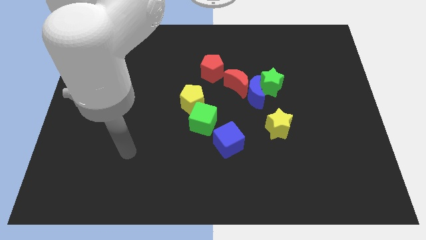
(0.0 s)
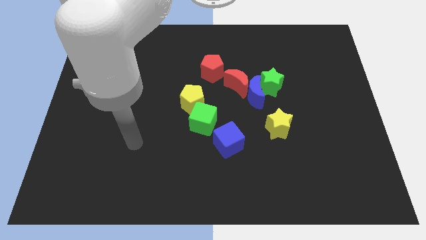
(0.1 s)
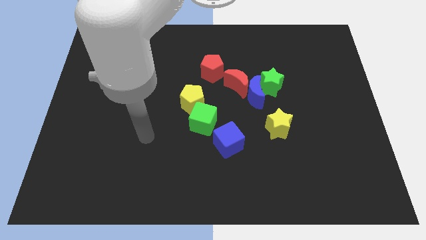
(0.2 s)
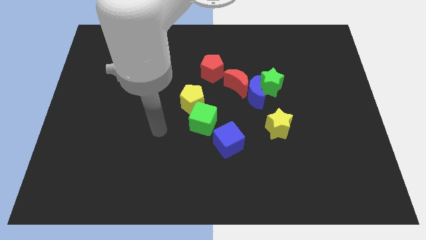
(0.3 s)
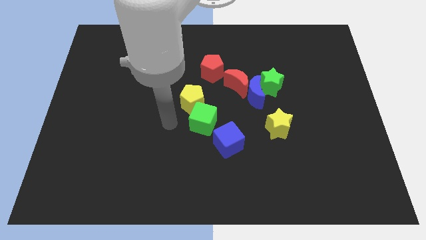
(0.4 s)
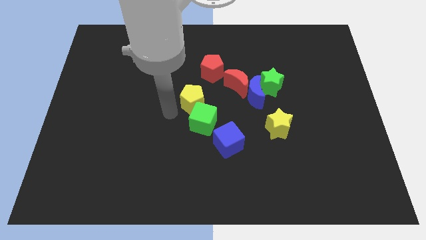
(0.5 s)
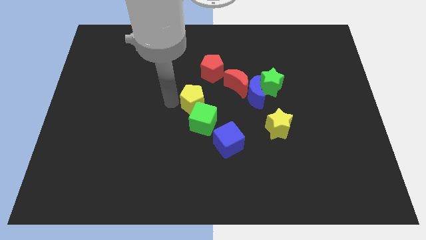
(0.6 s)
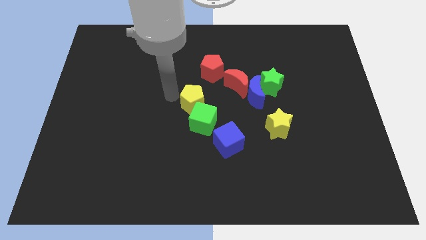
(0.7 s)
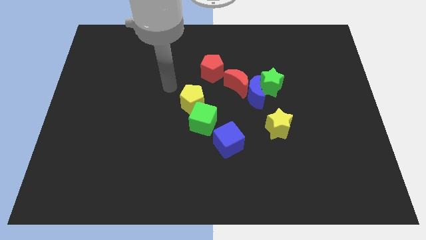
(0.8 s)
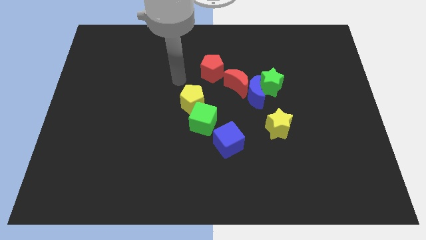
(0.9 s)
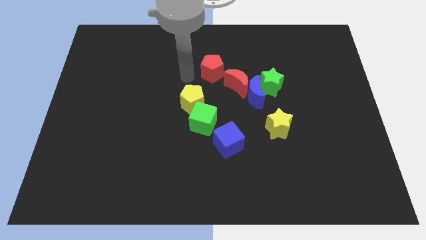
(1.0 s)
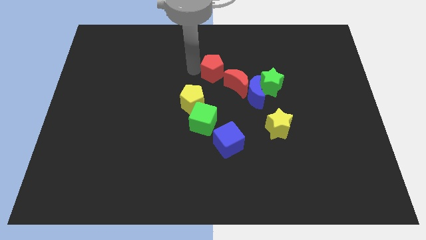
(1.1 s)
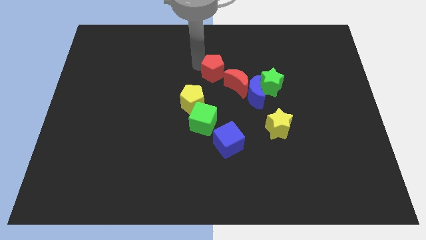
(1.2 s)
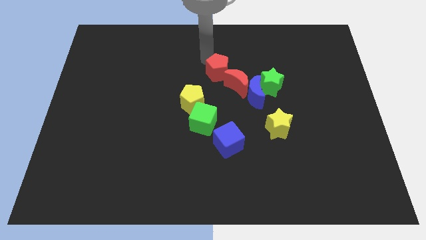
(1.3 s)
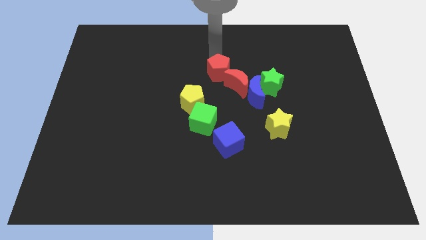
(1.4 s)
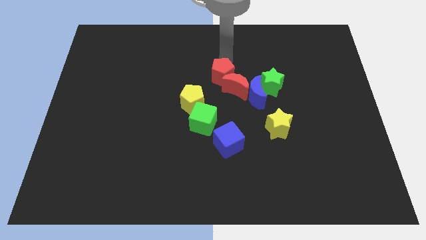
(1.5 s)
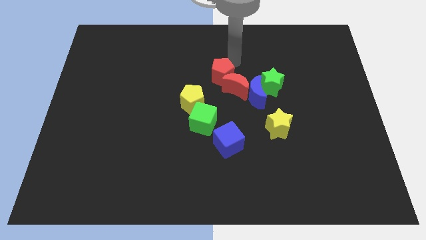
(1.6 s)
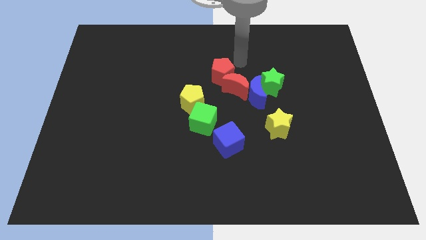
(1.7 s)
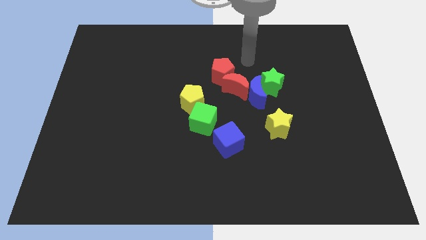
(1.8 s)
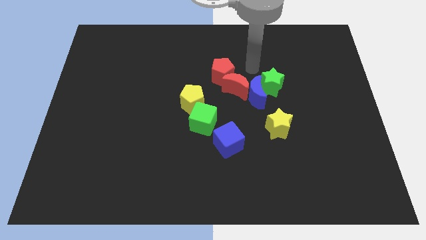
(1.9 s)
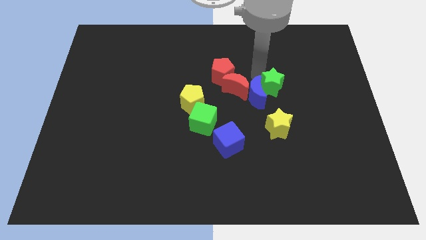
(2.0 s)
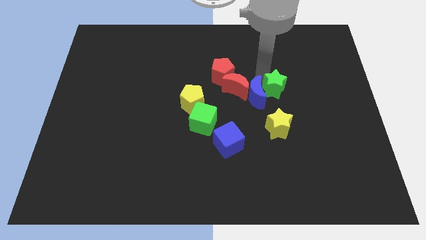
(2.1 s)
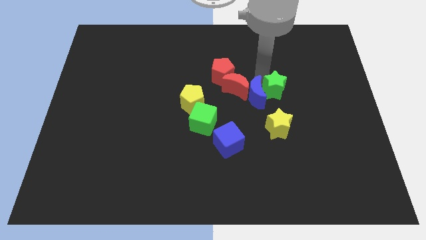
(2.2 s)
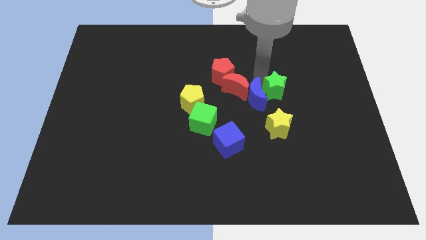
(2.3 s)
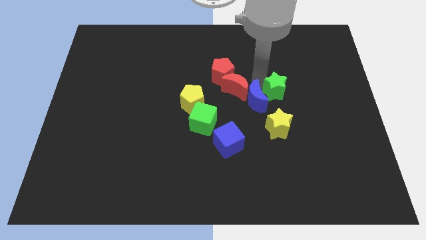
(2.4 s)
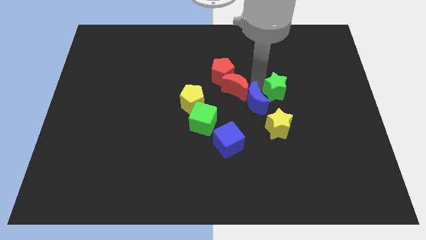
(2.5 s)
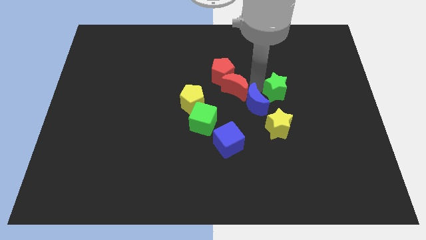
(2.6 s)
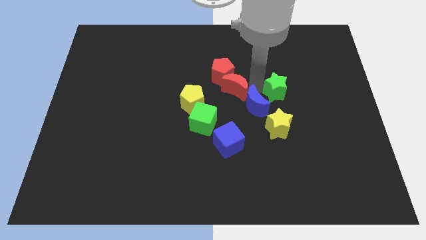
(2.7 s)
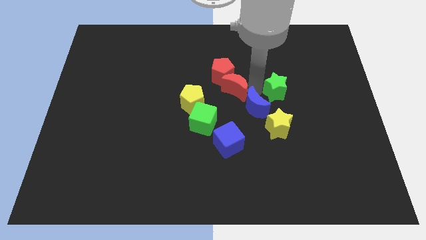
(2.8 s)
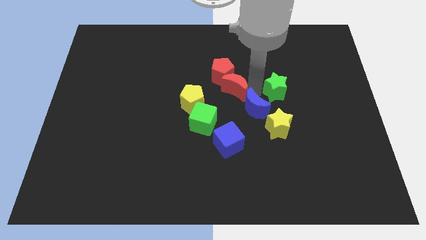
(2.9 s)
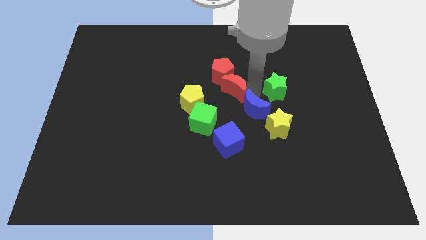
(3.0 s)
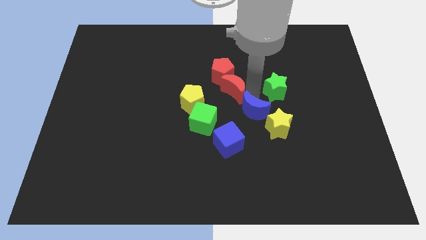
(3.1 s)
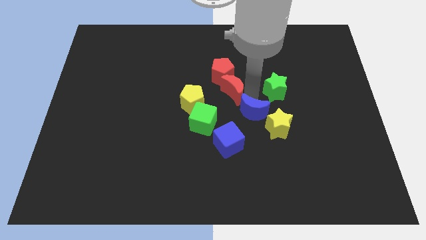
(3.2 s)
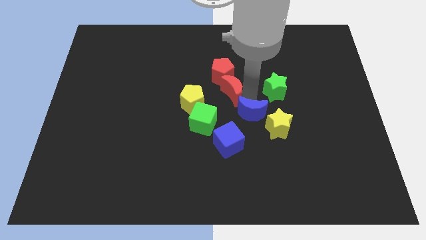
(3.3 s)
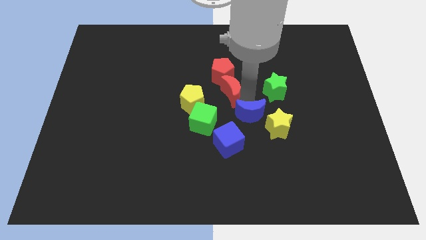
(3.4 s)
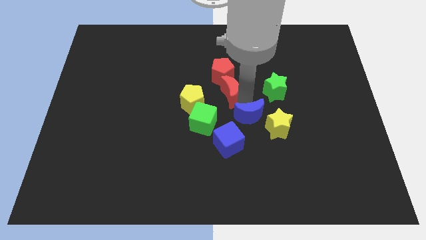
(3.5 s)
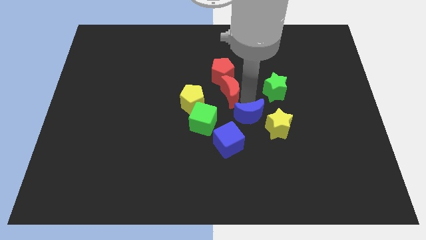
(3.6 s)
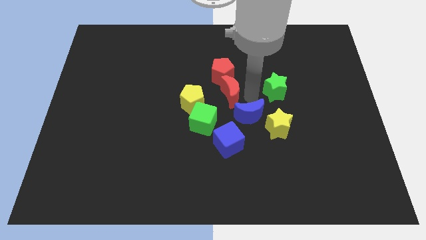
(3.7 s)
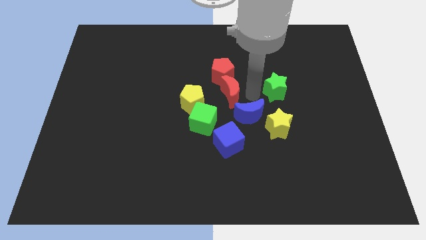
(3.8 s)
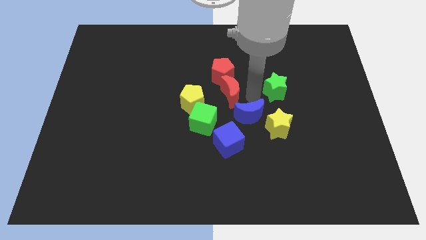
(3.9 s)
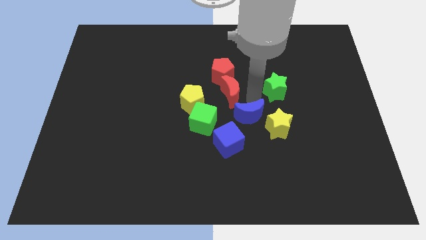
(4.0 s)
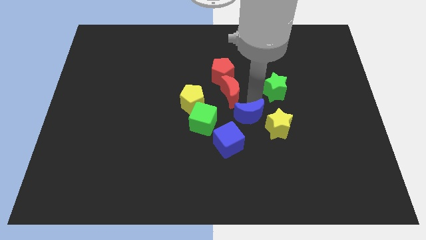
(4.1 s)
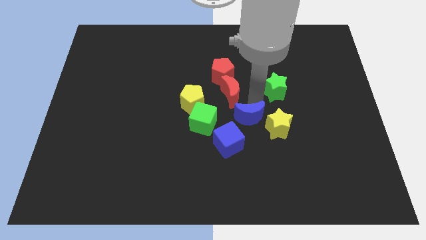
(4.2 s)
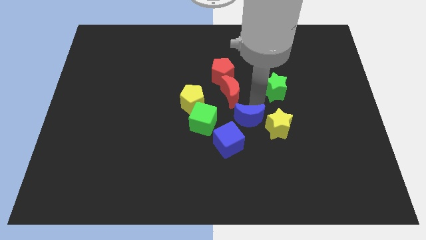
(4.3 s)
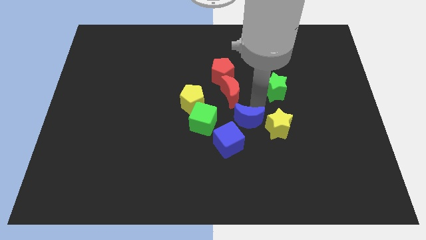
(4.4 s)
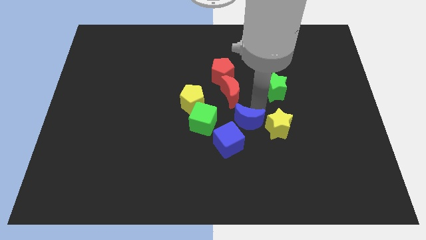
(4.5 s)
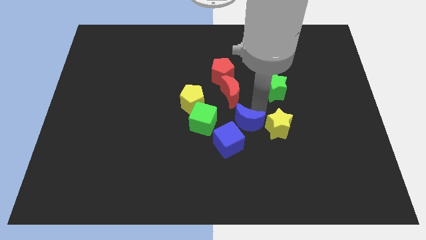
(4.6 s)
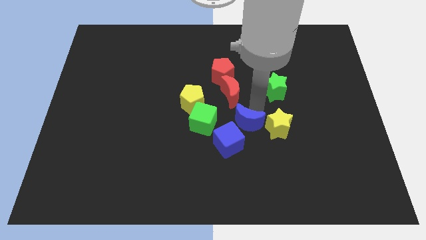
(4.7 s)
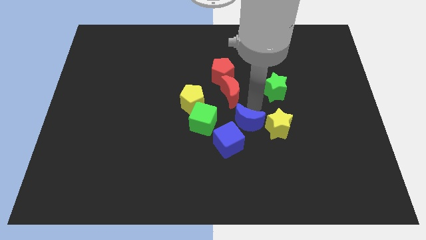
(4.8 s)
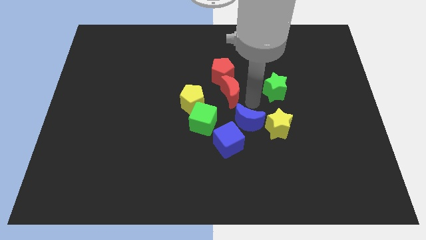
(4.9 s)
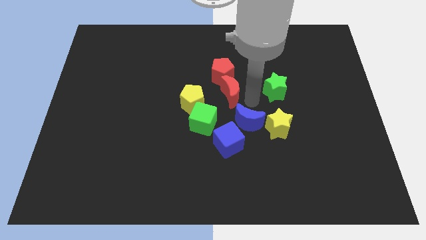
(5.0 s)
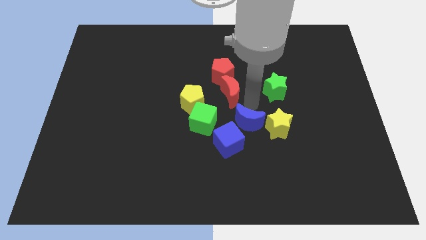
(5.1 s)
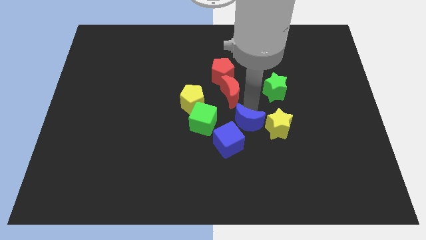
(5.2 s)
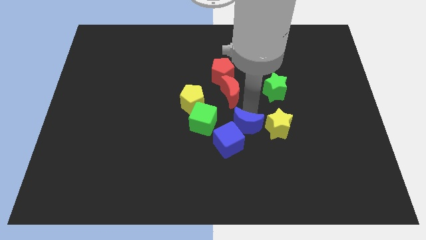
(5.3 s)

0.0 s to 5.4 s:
pull the blue moon apart from the green star and red moon

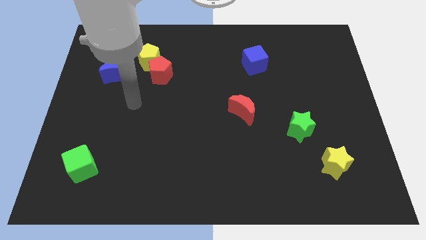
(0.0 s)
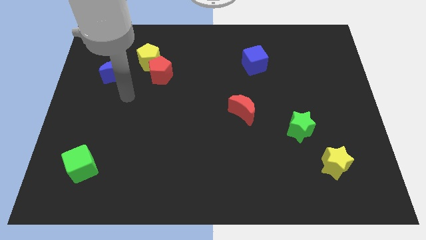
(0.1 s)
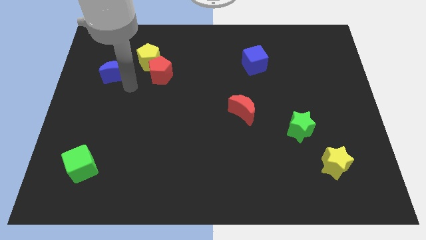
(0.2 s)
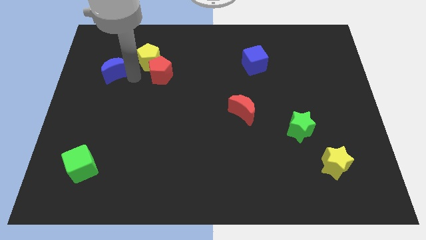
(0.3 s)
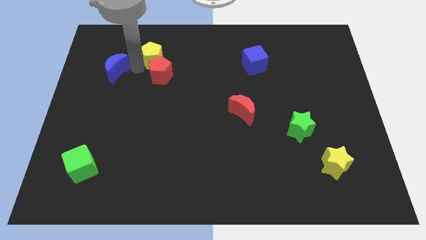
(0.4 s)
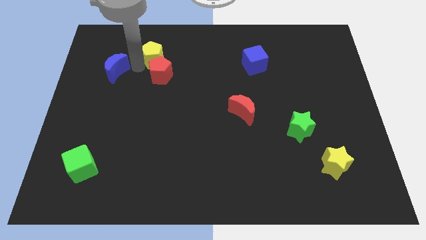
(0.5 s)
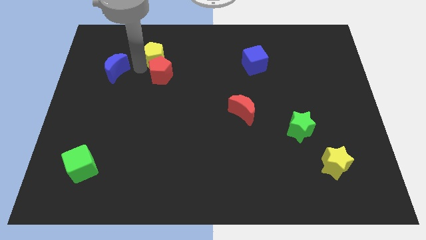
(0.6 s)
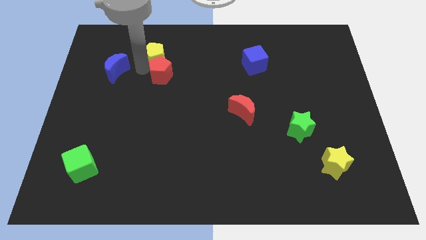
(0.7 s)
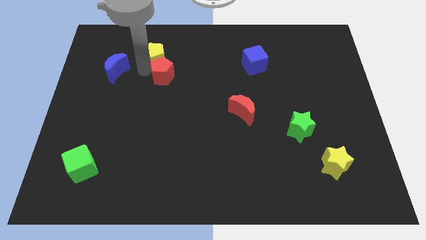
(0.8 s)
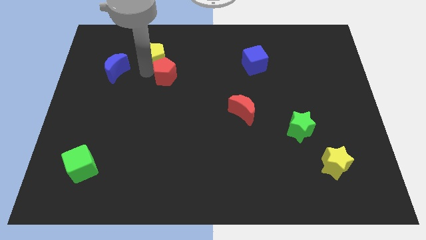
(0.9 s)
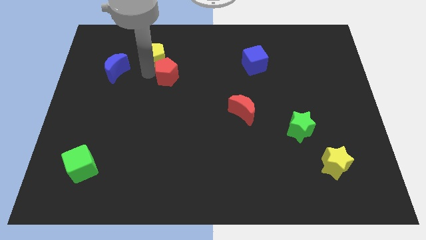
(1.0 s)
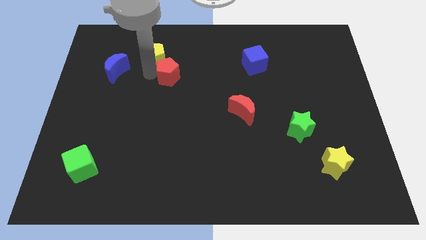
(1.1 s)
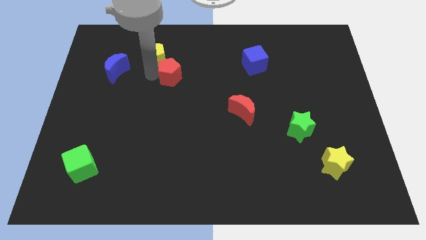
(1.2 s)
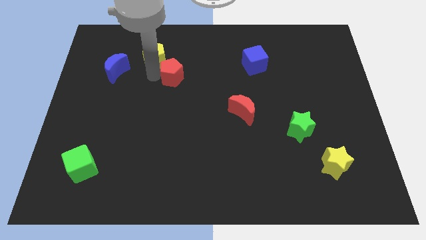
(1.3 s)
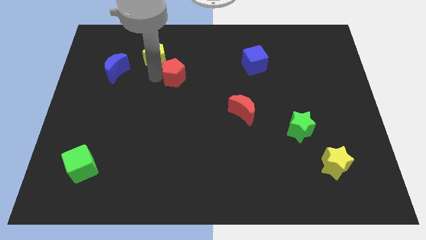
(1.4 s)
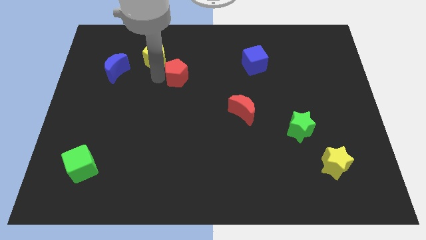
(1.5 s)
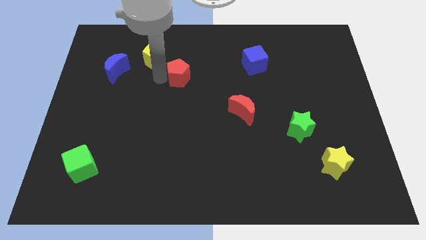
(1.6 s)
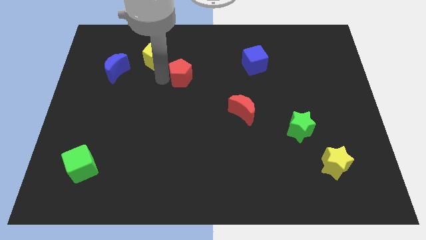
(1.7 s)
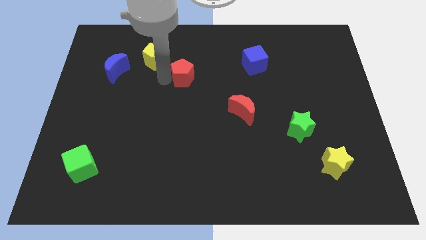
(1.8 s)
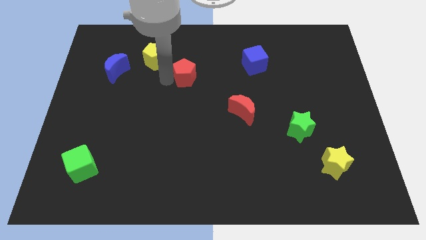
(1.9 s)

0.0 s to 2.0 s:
separate the red pentagon from the yellow pentagon

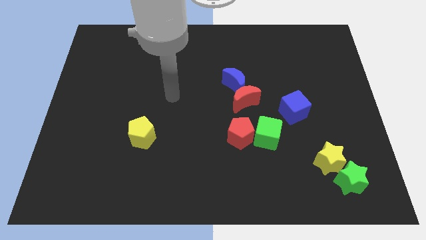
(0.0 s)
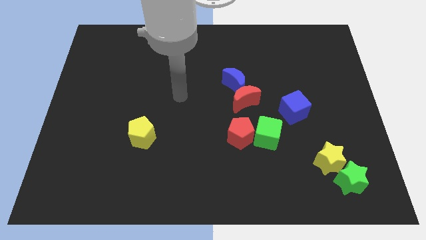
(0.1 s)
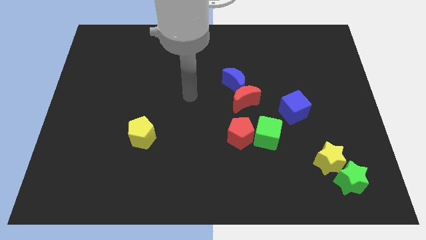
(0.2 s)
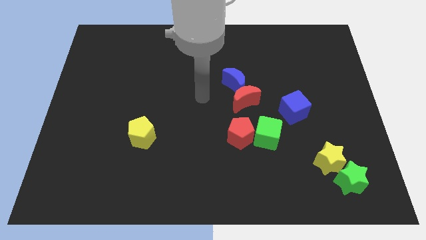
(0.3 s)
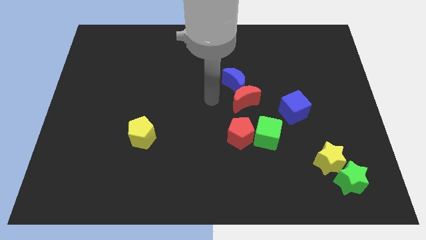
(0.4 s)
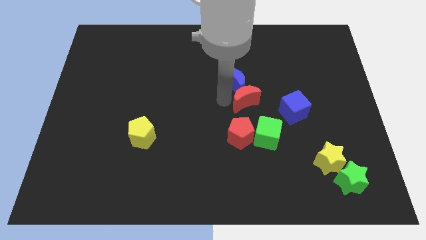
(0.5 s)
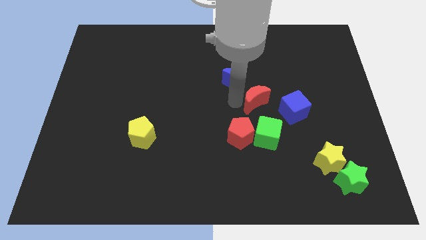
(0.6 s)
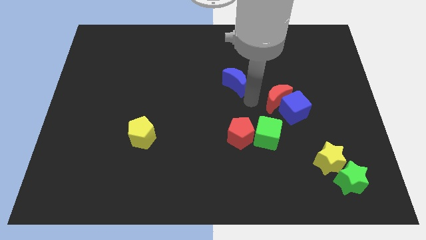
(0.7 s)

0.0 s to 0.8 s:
separate the blue moon from the red moon

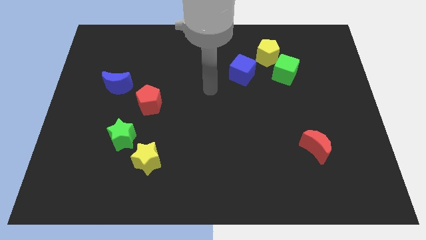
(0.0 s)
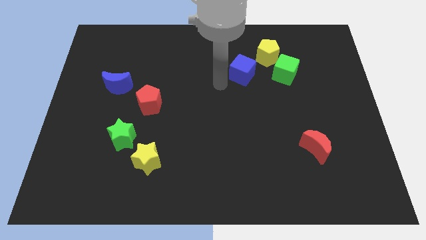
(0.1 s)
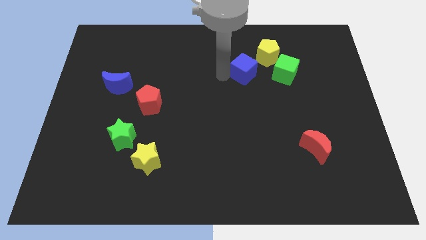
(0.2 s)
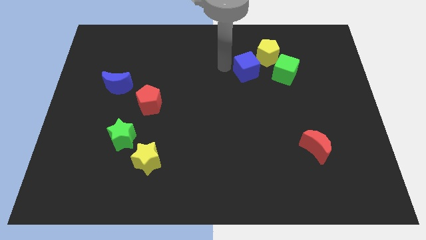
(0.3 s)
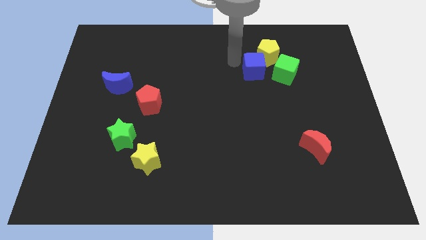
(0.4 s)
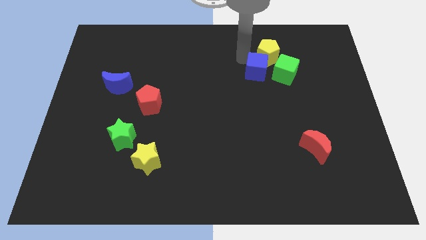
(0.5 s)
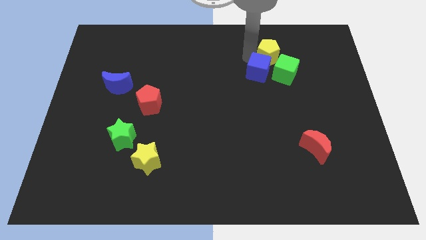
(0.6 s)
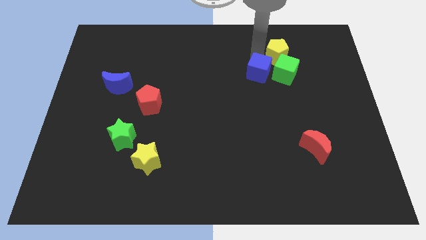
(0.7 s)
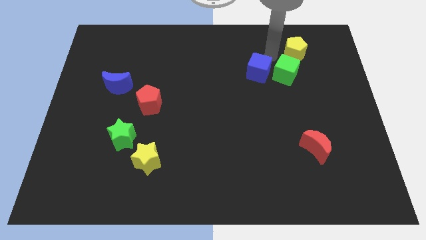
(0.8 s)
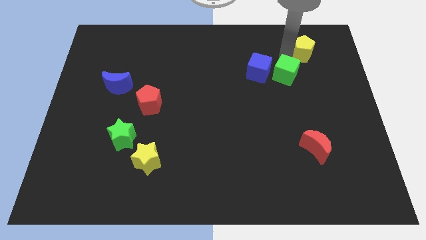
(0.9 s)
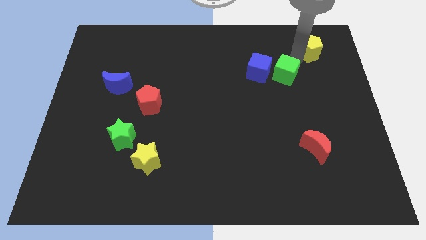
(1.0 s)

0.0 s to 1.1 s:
separate the green cube from the yellow pentagon

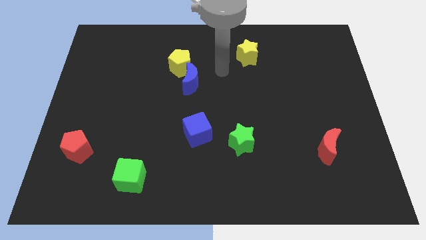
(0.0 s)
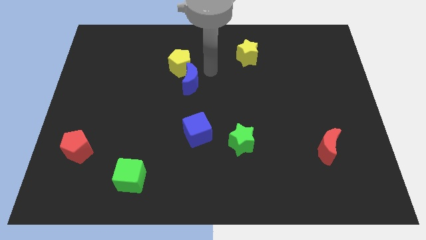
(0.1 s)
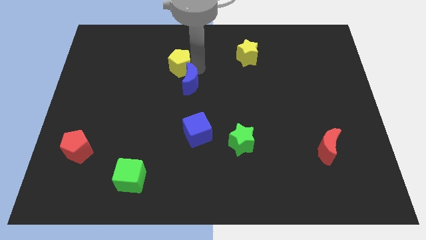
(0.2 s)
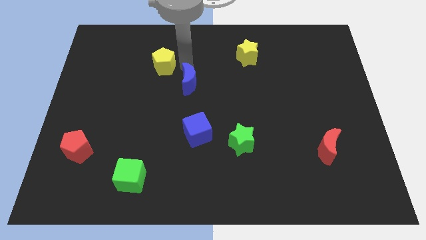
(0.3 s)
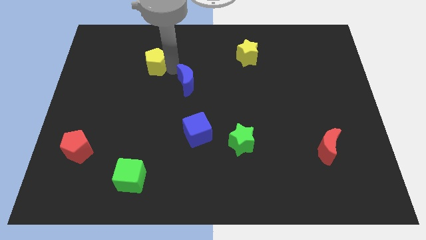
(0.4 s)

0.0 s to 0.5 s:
separate the blue moon from the yellow pentagon
